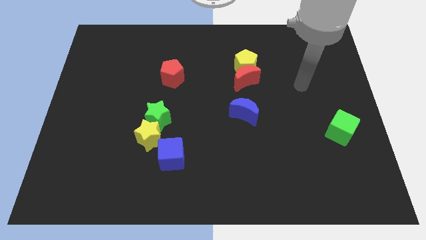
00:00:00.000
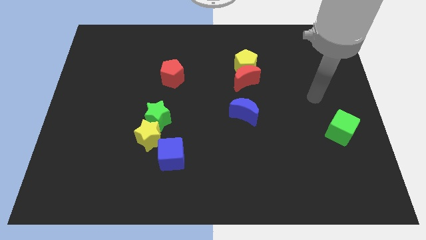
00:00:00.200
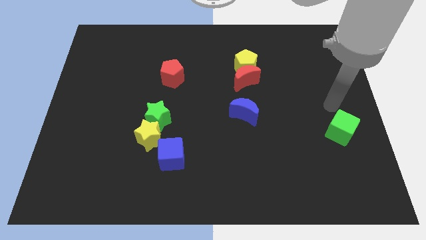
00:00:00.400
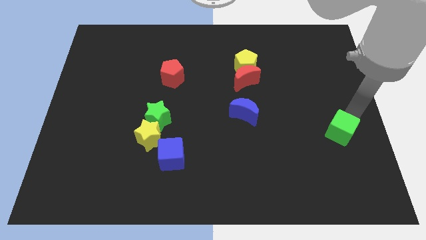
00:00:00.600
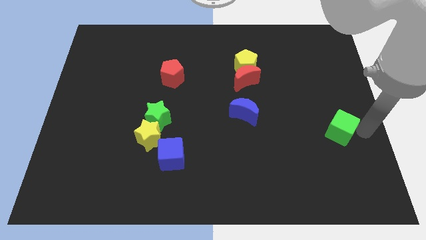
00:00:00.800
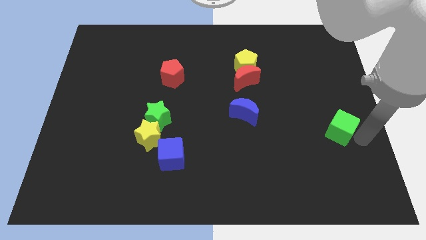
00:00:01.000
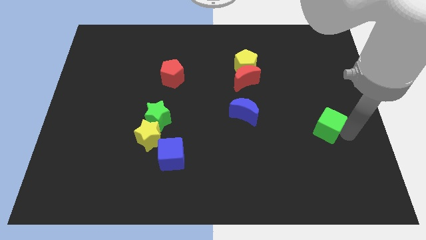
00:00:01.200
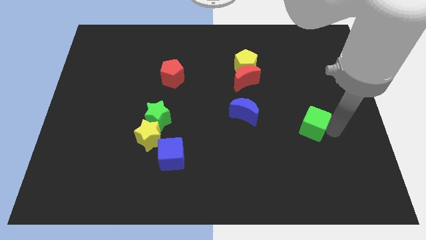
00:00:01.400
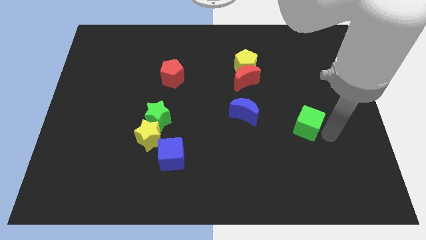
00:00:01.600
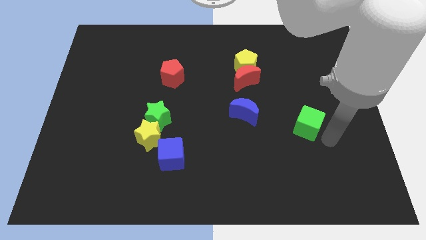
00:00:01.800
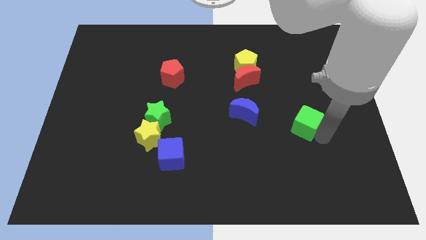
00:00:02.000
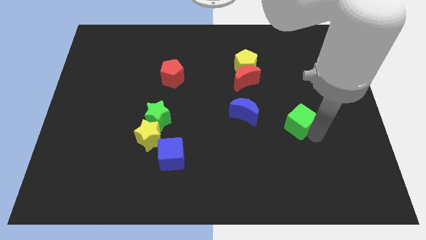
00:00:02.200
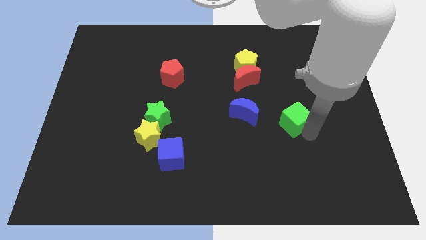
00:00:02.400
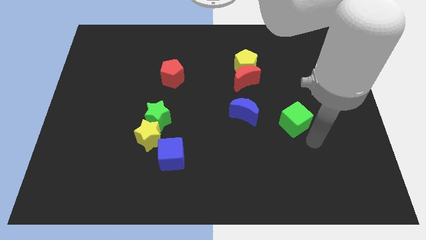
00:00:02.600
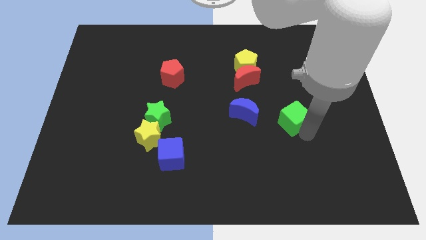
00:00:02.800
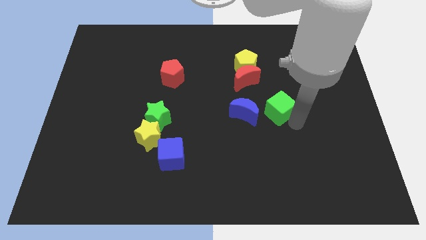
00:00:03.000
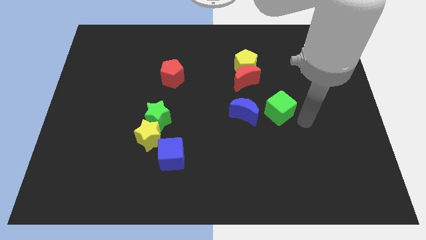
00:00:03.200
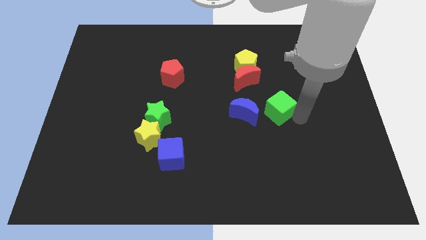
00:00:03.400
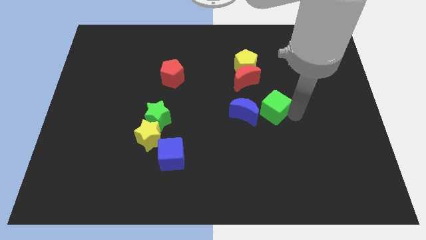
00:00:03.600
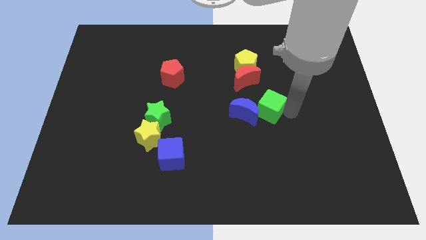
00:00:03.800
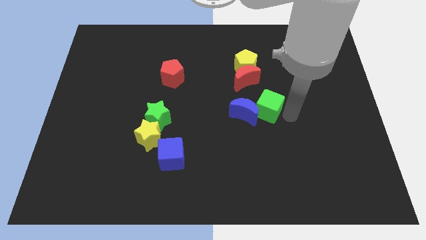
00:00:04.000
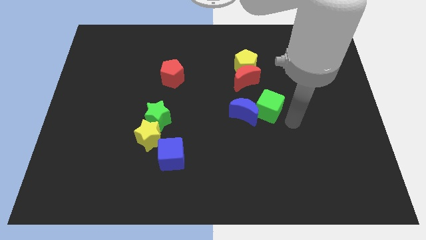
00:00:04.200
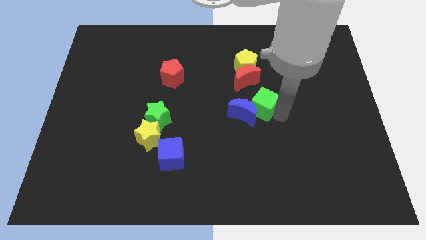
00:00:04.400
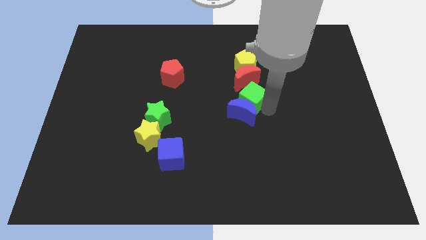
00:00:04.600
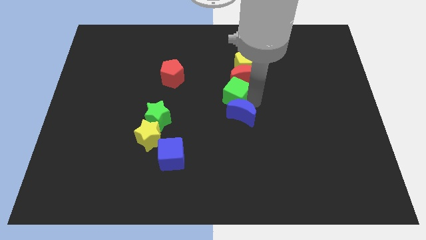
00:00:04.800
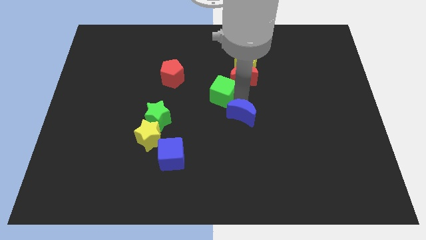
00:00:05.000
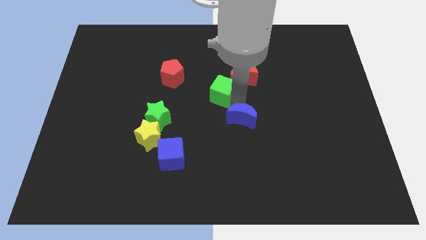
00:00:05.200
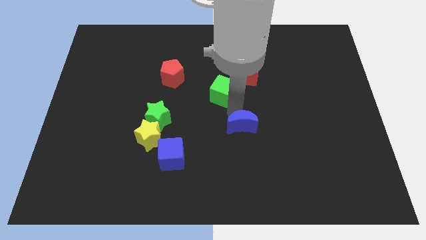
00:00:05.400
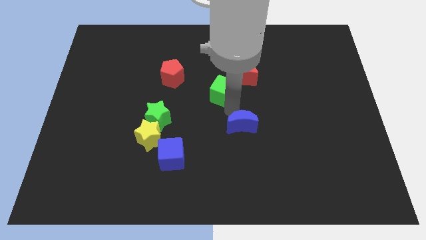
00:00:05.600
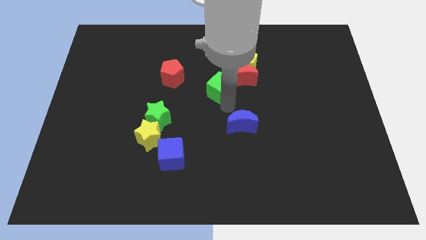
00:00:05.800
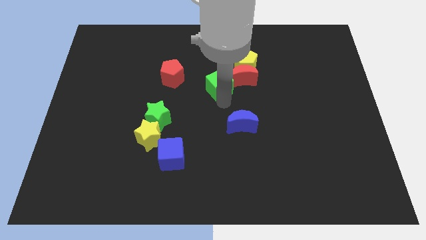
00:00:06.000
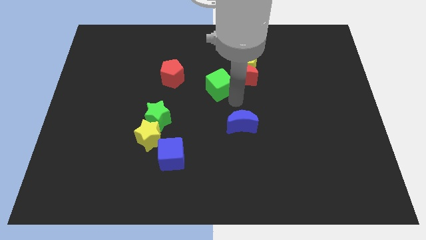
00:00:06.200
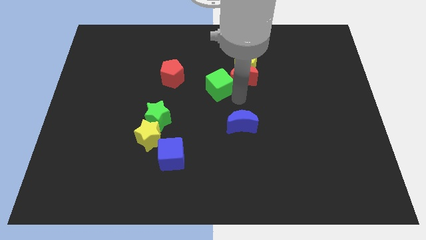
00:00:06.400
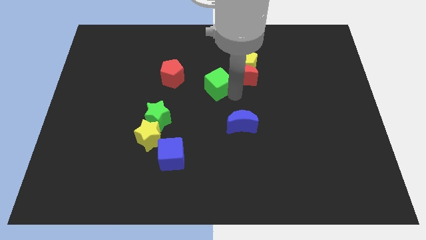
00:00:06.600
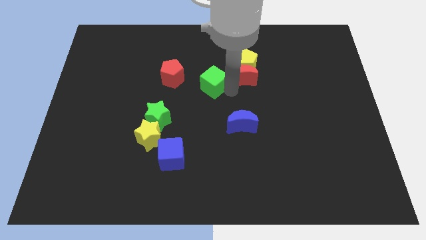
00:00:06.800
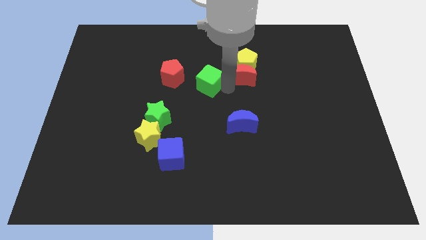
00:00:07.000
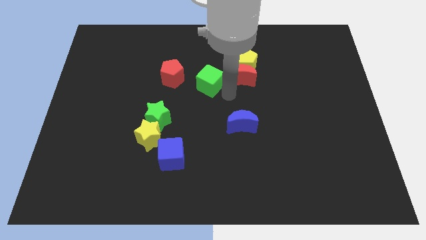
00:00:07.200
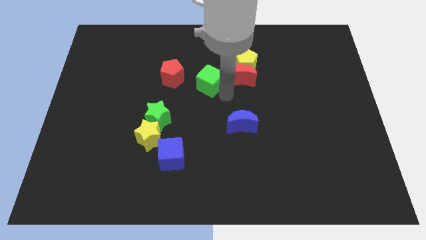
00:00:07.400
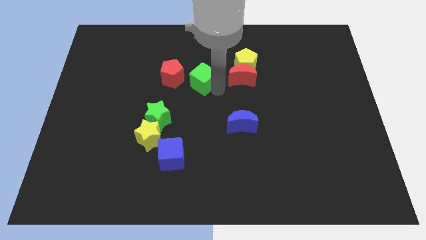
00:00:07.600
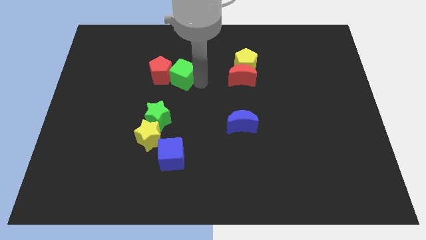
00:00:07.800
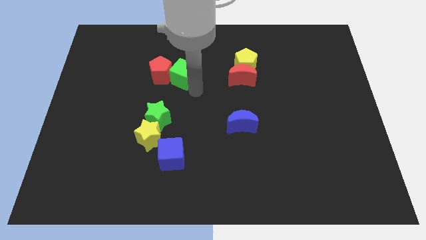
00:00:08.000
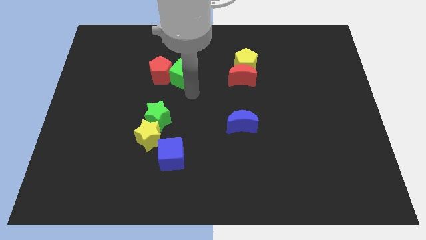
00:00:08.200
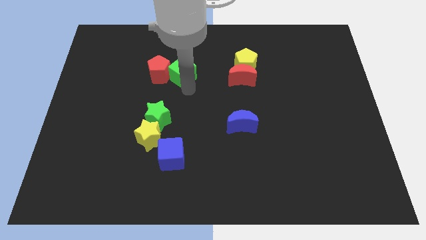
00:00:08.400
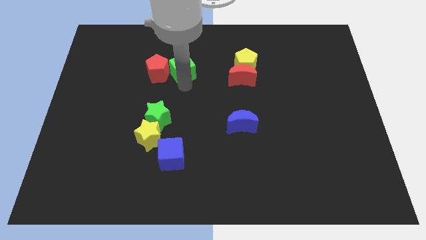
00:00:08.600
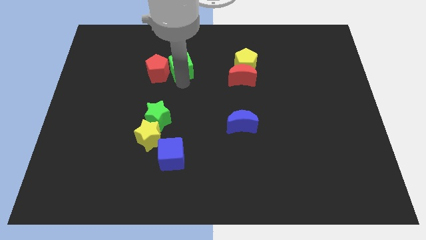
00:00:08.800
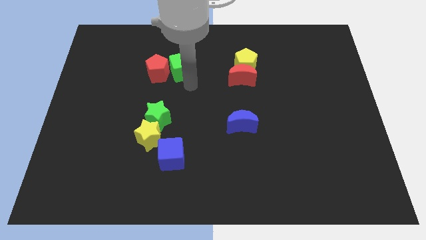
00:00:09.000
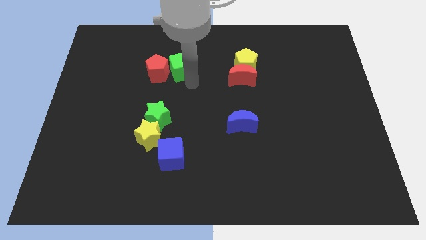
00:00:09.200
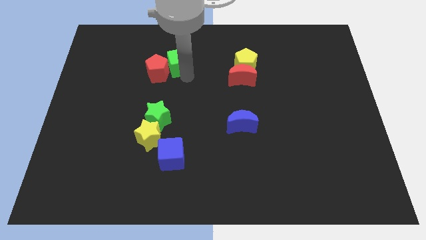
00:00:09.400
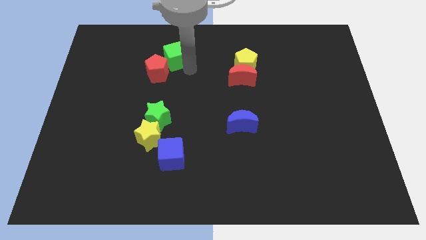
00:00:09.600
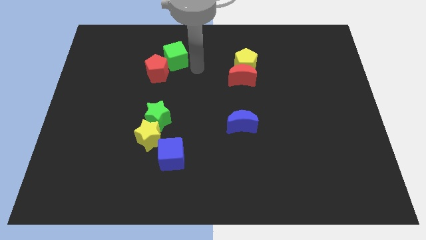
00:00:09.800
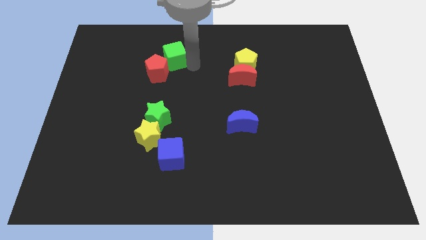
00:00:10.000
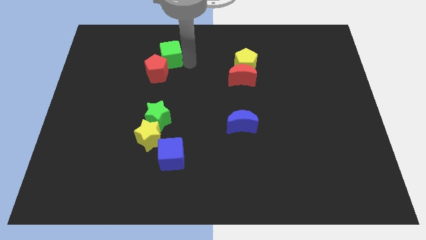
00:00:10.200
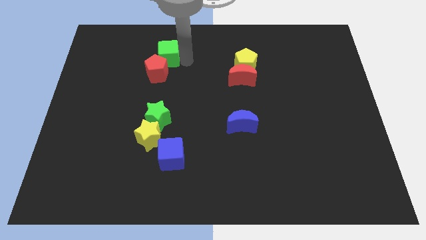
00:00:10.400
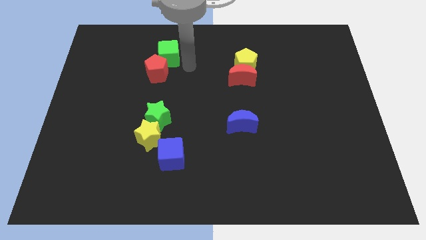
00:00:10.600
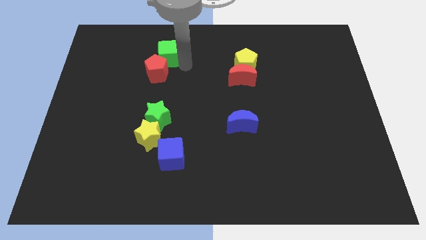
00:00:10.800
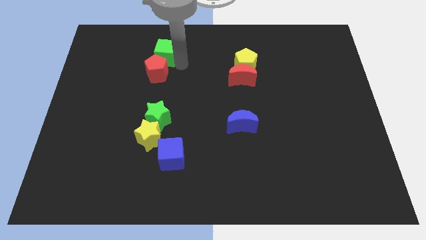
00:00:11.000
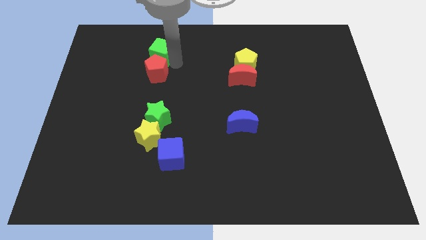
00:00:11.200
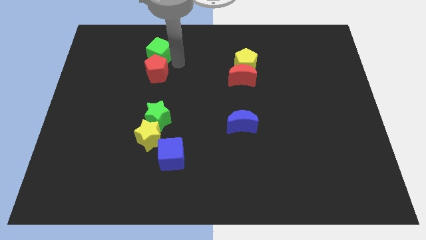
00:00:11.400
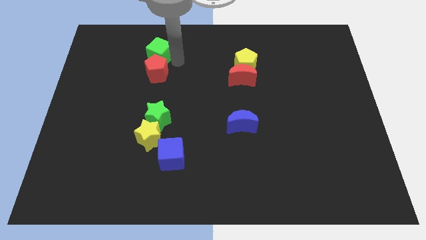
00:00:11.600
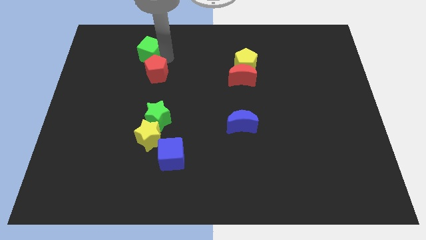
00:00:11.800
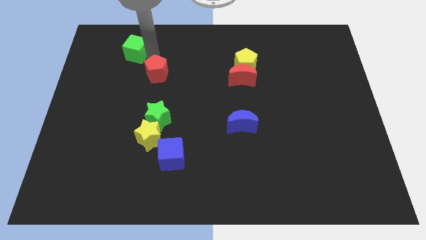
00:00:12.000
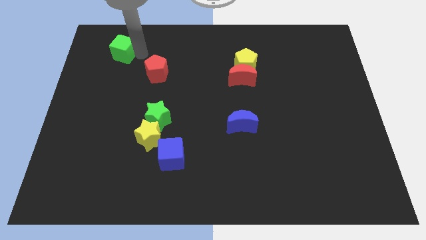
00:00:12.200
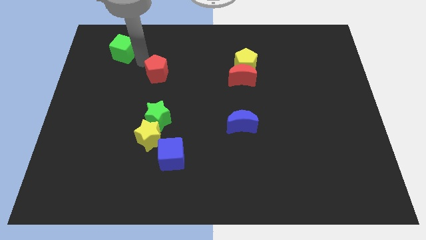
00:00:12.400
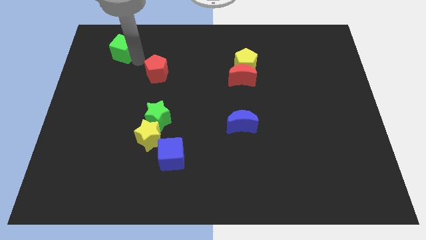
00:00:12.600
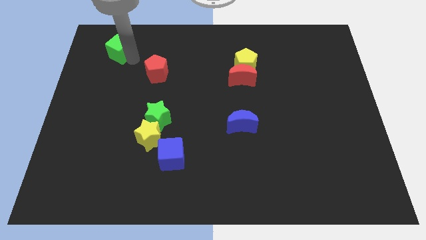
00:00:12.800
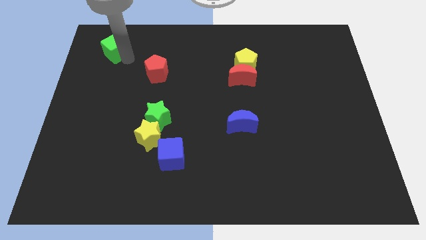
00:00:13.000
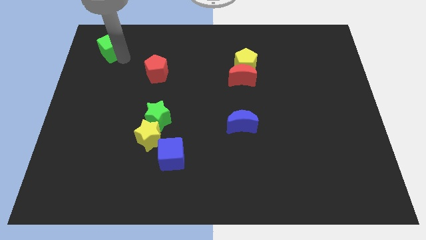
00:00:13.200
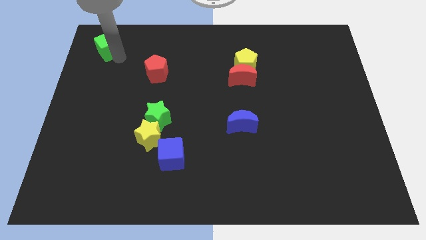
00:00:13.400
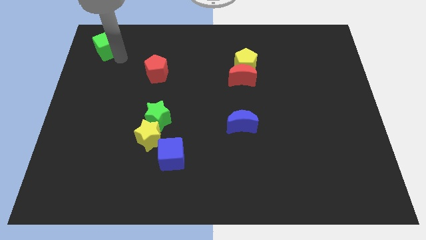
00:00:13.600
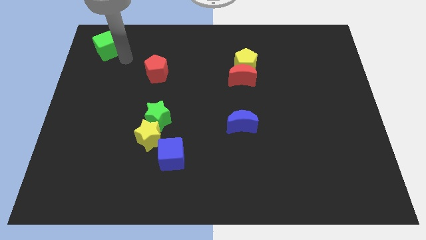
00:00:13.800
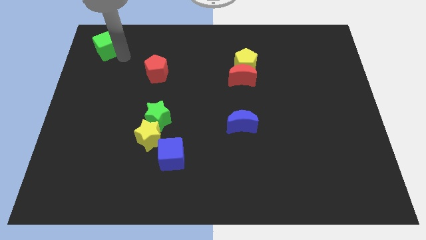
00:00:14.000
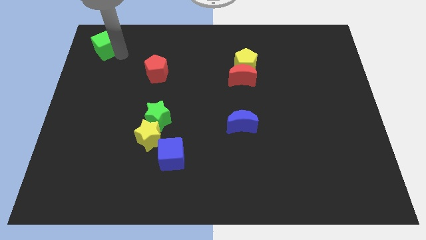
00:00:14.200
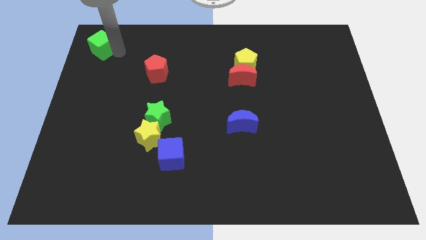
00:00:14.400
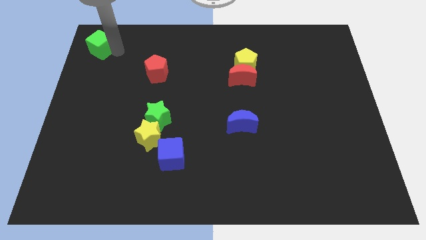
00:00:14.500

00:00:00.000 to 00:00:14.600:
push the green cube to the top left of the board
